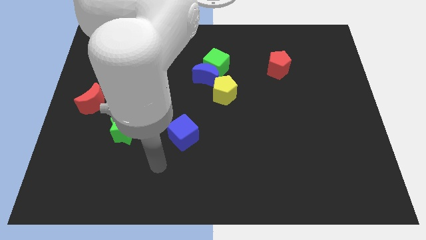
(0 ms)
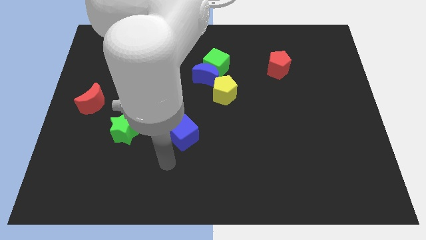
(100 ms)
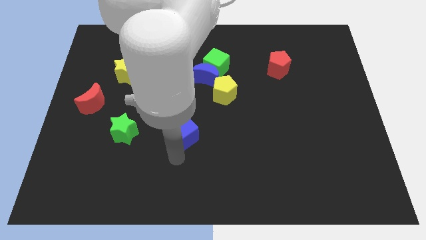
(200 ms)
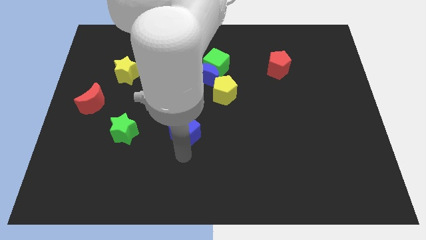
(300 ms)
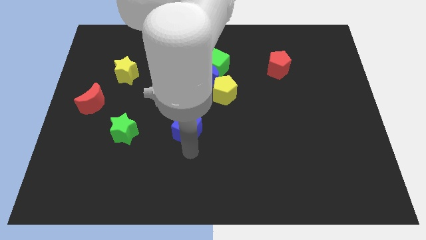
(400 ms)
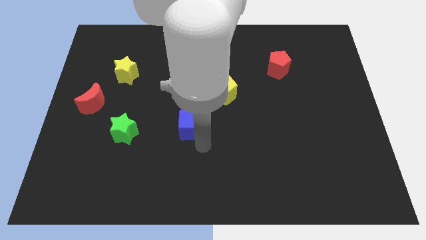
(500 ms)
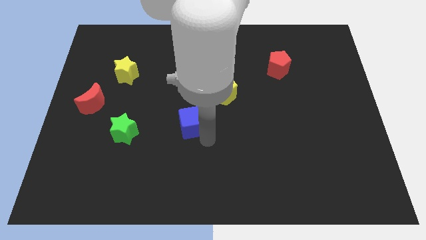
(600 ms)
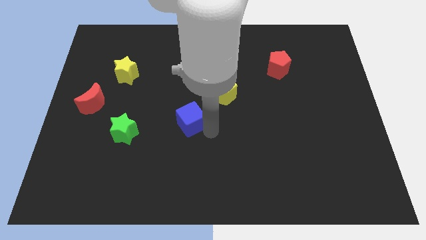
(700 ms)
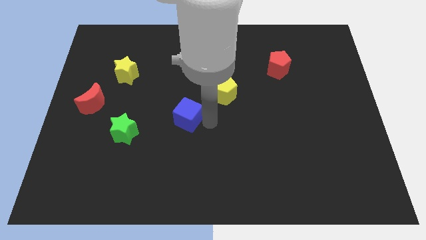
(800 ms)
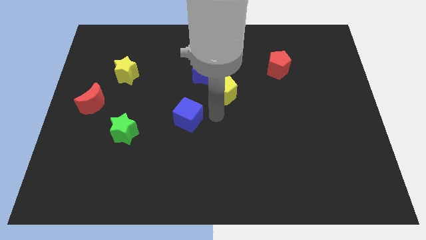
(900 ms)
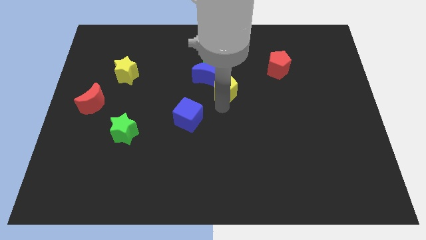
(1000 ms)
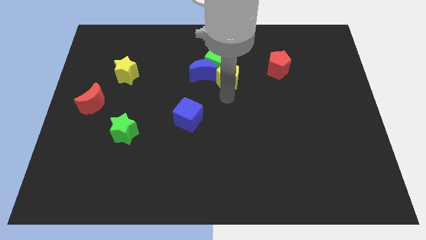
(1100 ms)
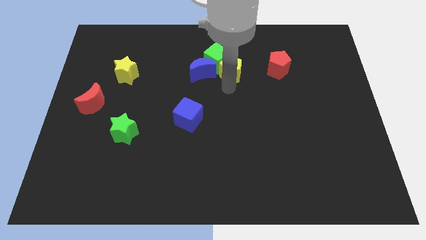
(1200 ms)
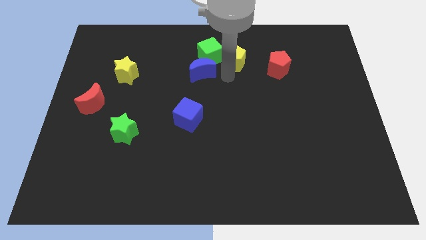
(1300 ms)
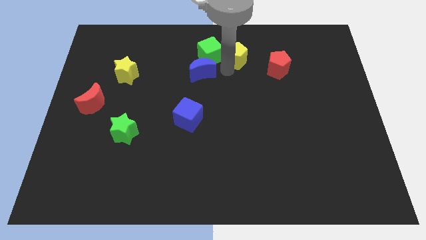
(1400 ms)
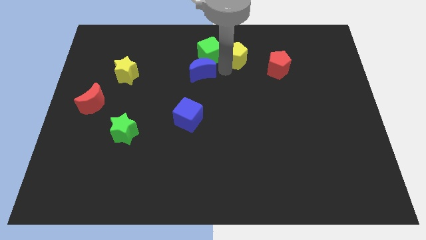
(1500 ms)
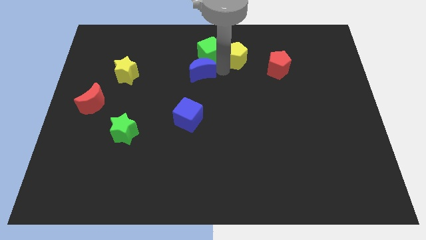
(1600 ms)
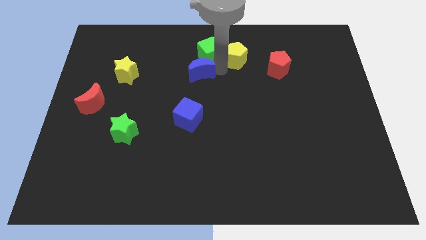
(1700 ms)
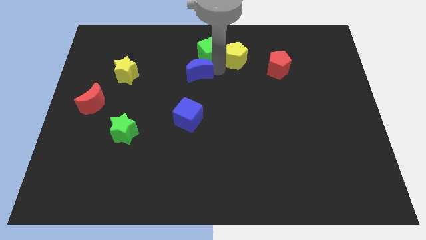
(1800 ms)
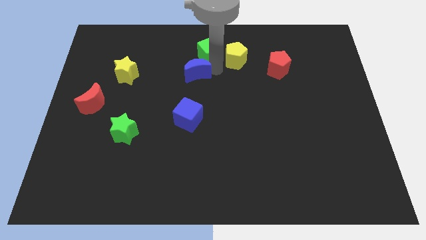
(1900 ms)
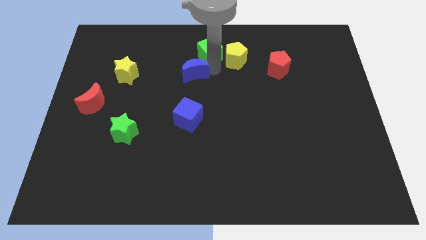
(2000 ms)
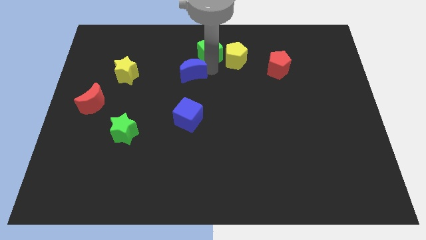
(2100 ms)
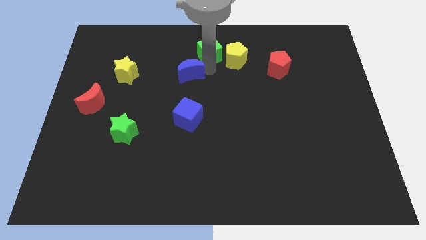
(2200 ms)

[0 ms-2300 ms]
move the blue moon away from the green cube and yellow pentagon

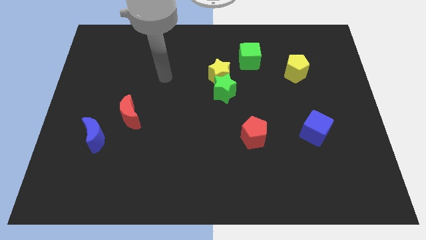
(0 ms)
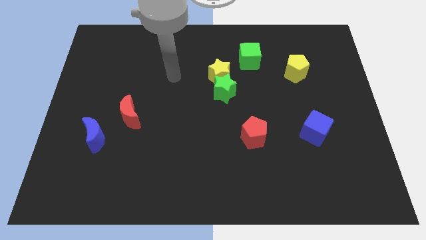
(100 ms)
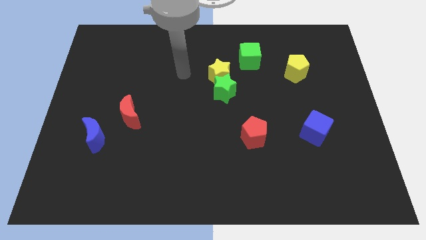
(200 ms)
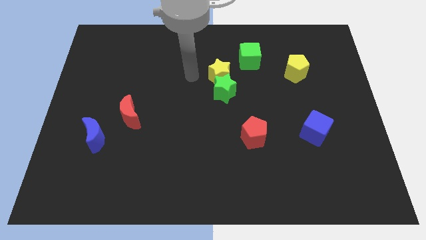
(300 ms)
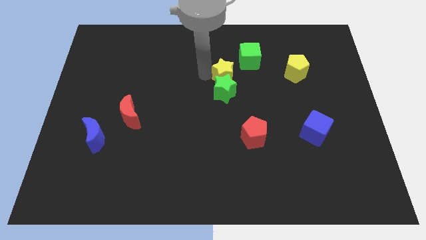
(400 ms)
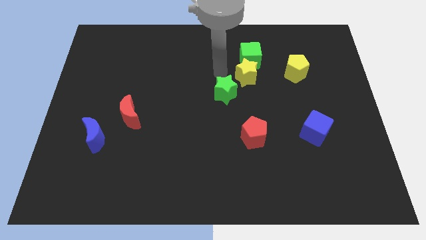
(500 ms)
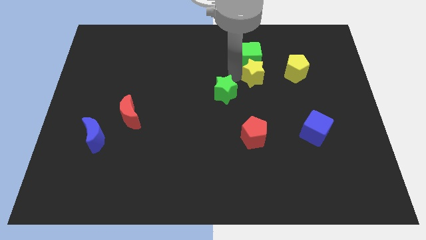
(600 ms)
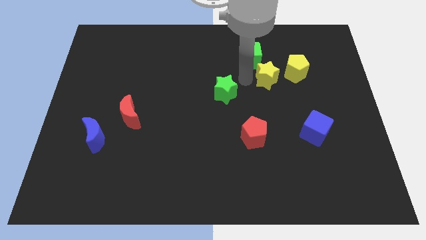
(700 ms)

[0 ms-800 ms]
move the green star away from the yellow star

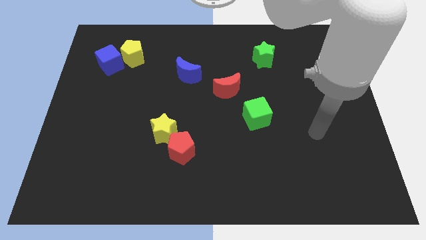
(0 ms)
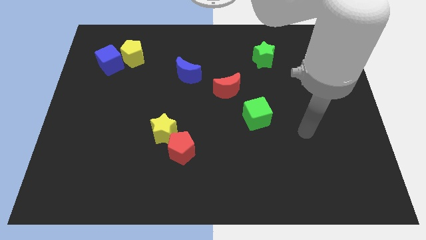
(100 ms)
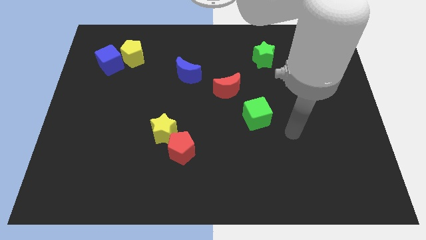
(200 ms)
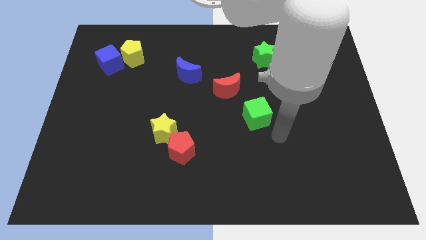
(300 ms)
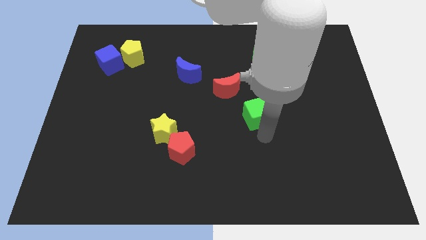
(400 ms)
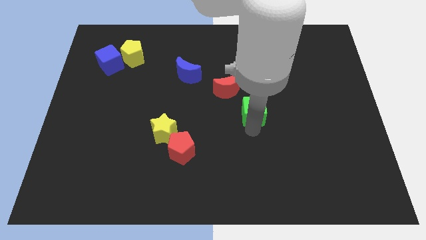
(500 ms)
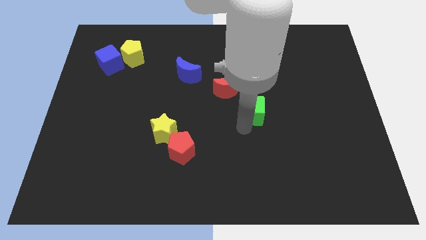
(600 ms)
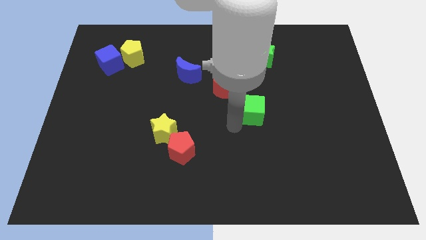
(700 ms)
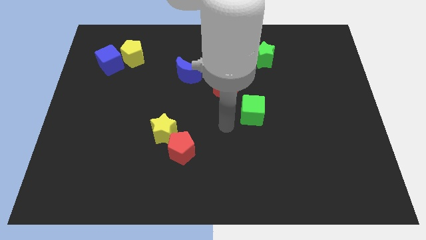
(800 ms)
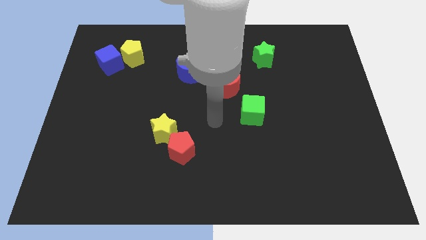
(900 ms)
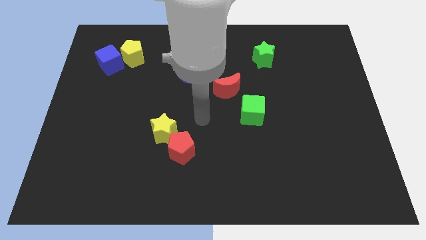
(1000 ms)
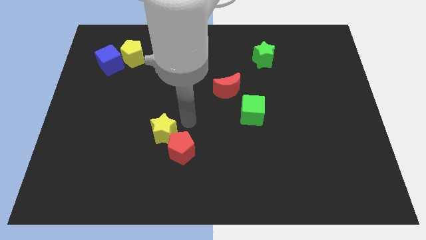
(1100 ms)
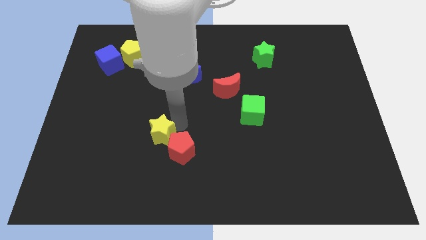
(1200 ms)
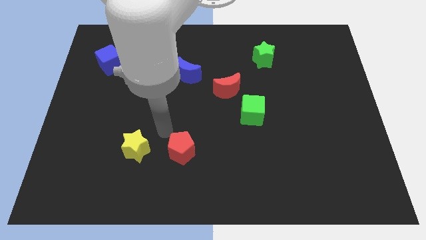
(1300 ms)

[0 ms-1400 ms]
separate the red pentagon from the yellow star

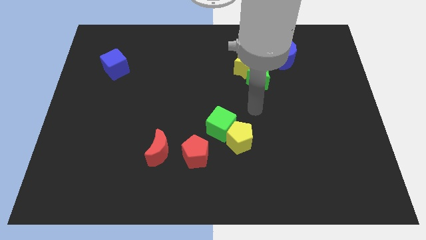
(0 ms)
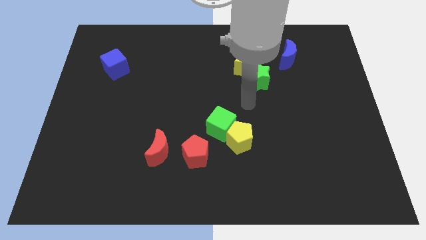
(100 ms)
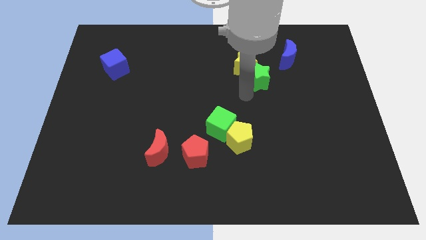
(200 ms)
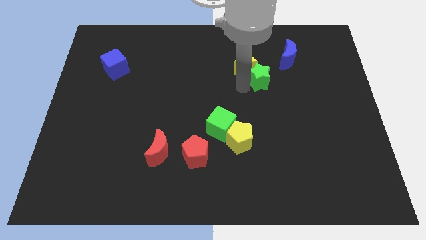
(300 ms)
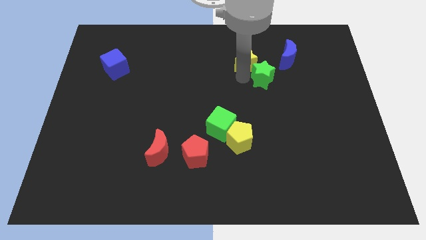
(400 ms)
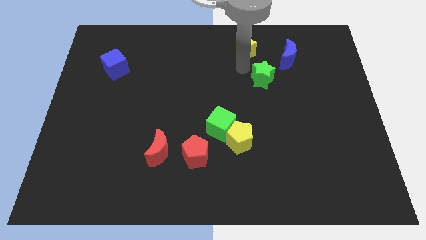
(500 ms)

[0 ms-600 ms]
pull the green star apart from the yellow star

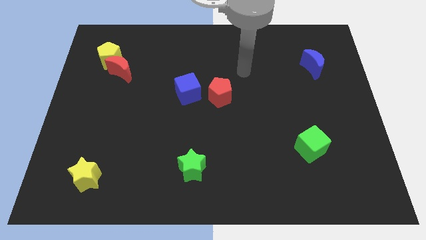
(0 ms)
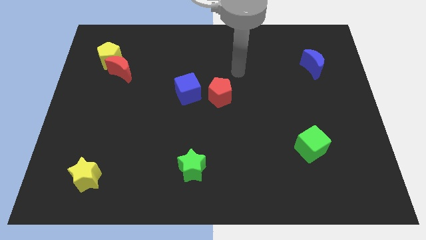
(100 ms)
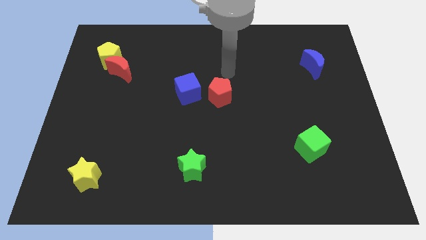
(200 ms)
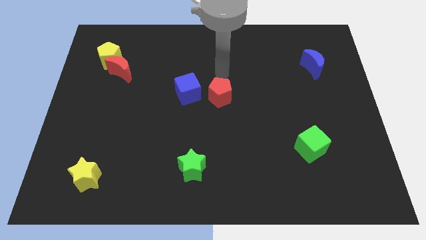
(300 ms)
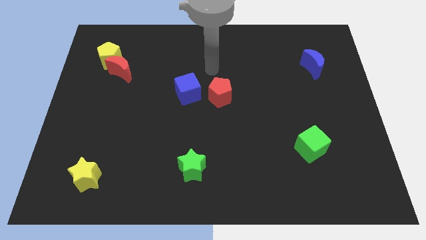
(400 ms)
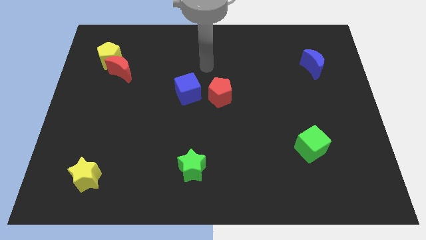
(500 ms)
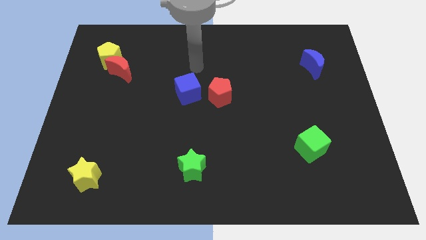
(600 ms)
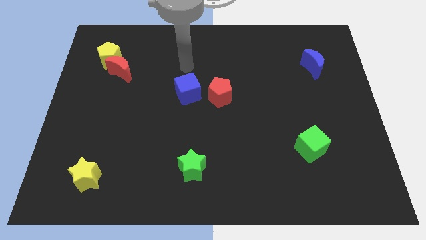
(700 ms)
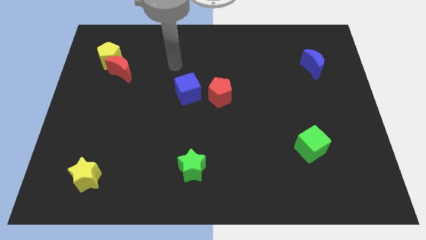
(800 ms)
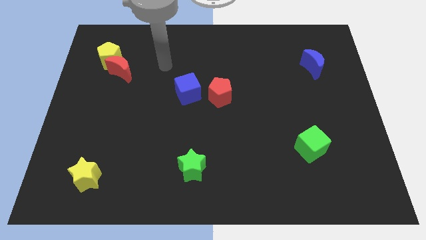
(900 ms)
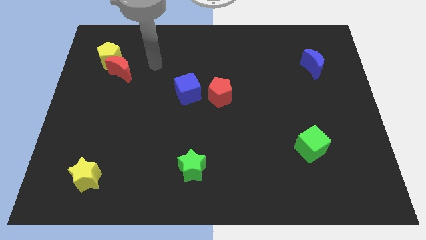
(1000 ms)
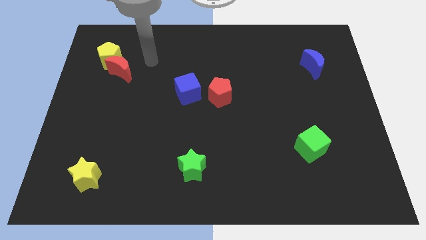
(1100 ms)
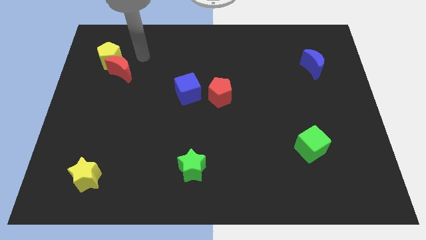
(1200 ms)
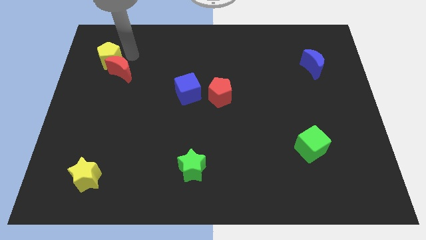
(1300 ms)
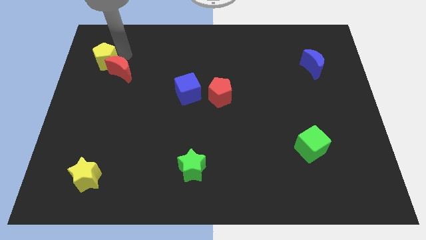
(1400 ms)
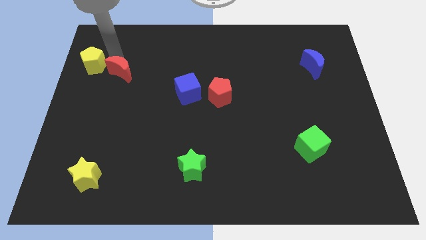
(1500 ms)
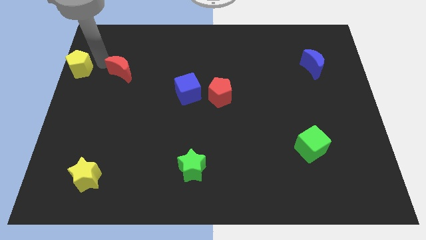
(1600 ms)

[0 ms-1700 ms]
separate the red moon from the yellow pentagon

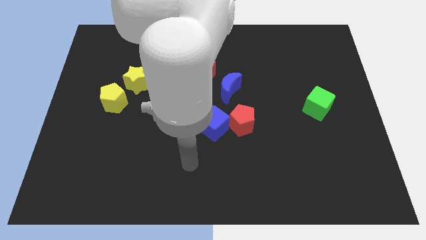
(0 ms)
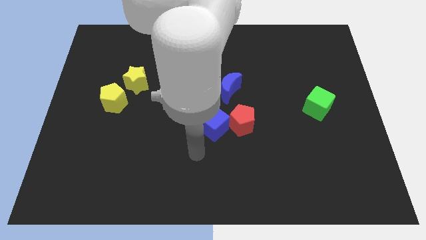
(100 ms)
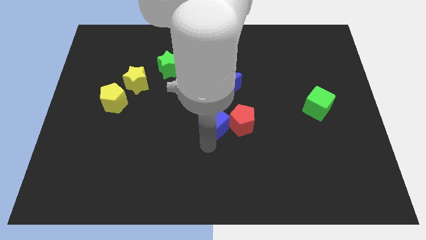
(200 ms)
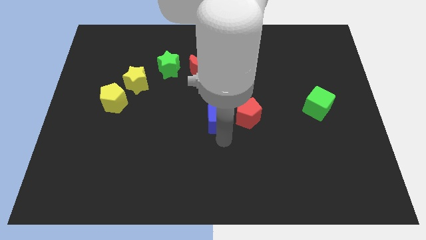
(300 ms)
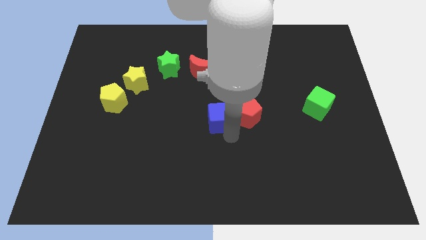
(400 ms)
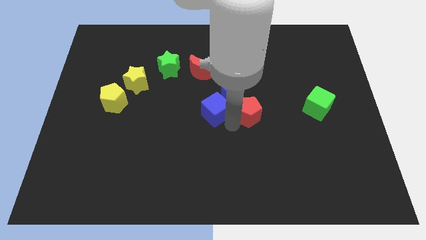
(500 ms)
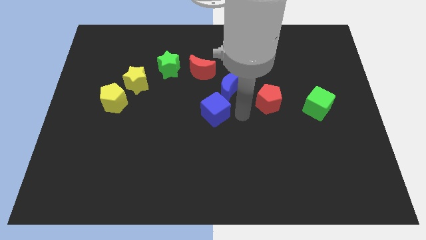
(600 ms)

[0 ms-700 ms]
pull the blue cube apart from the red pentagon

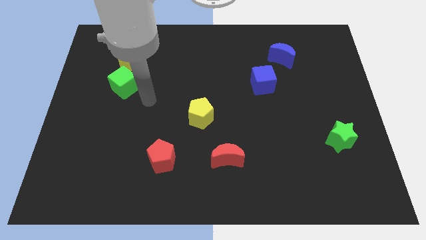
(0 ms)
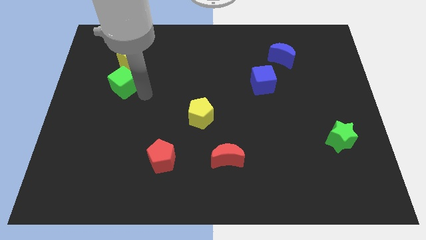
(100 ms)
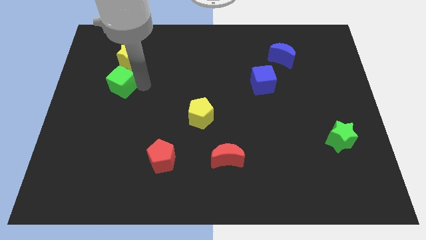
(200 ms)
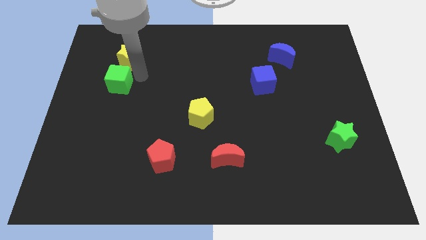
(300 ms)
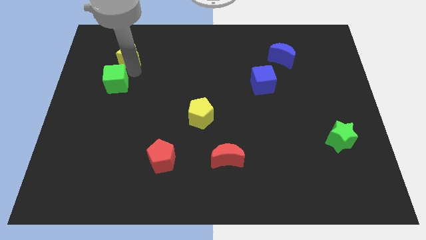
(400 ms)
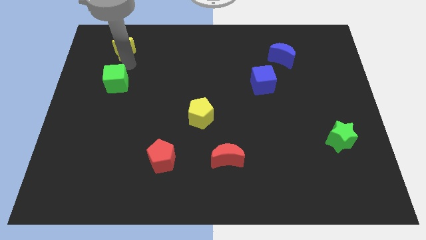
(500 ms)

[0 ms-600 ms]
move the green cube away from the yellow star

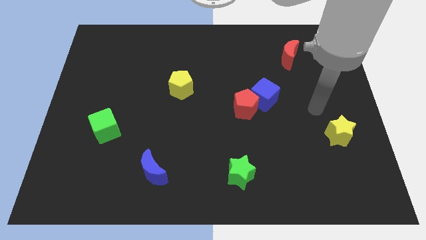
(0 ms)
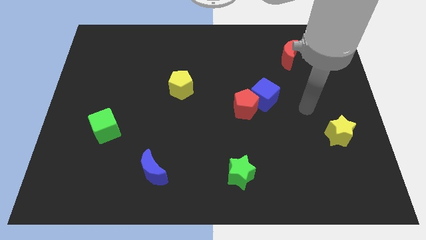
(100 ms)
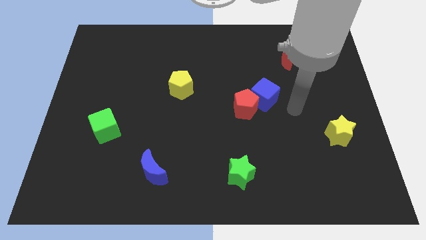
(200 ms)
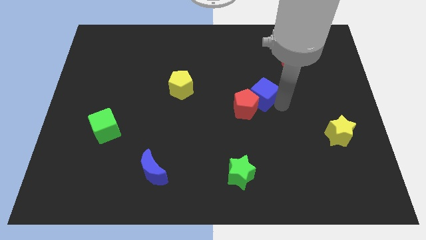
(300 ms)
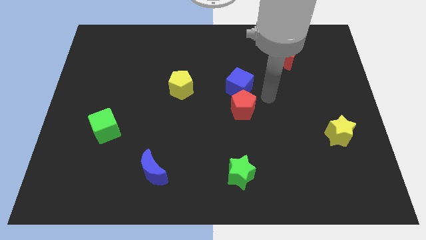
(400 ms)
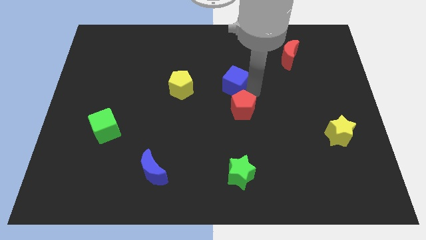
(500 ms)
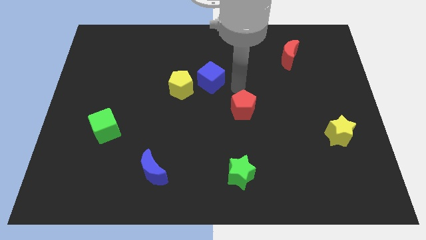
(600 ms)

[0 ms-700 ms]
move the red pentagon away from the blue cube

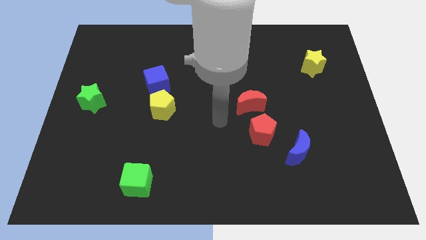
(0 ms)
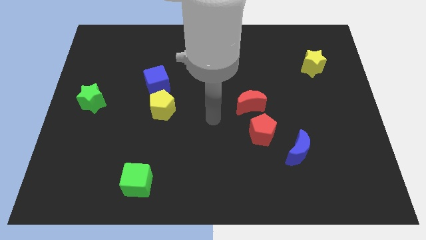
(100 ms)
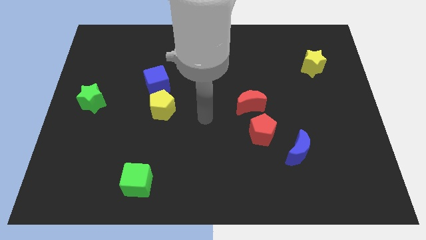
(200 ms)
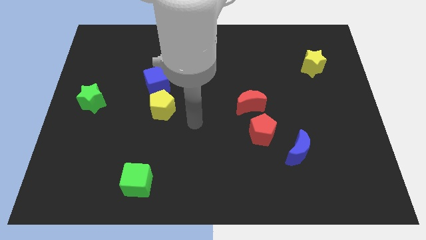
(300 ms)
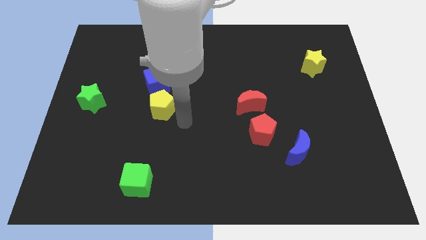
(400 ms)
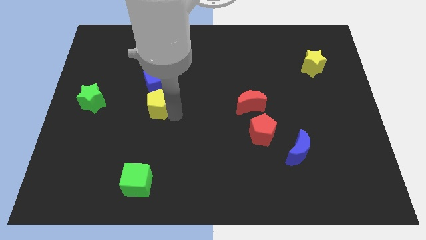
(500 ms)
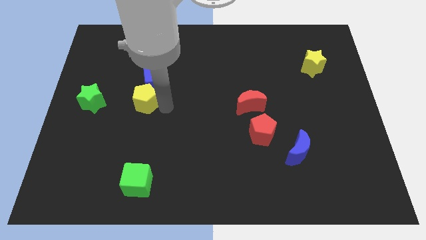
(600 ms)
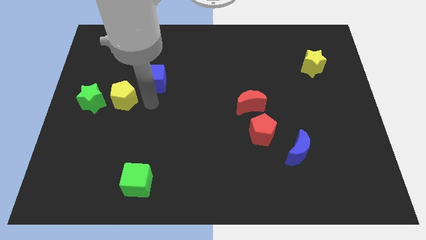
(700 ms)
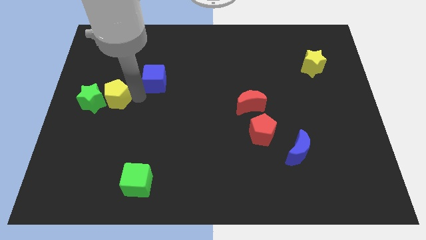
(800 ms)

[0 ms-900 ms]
pull the blue cube apart from the yellow pentagon
